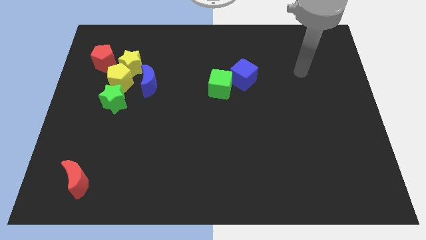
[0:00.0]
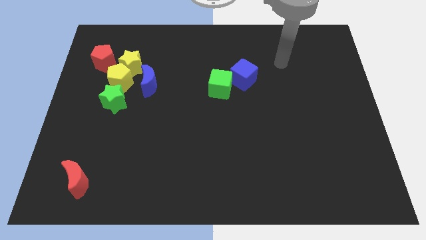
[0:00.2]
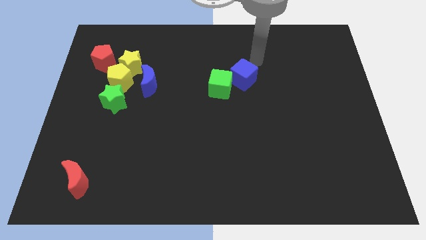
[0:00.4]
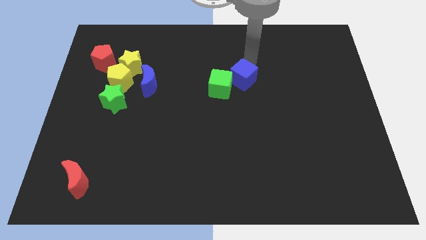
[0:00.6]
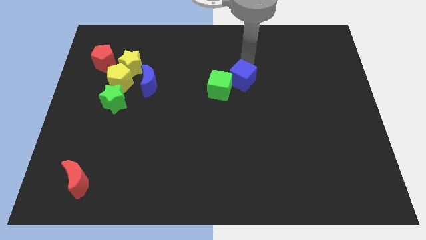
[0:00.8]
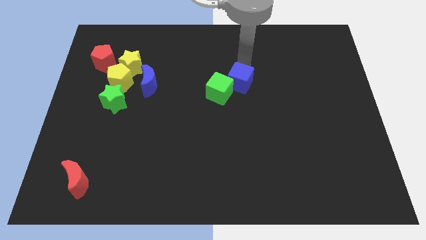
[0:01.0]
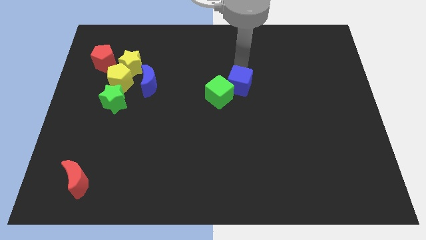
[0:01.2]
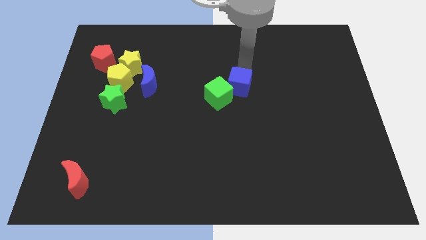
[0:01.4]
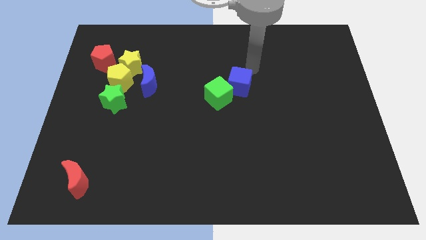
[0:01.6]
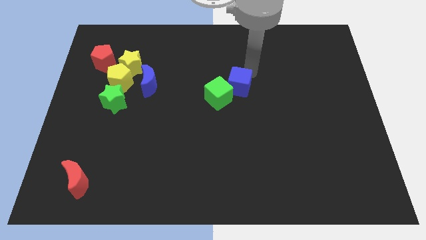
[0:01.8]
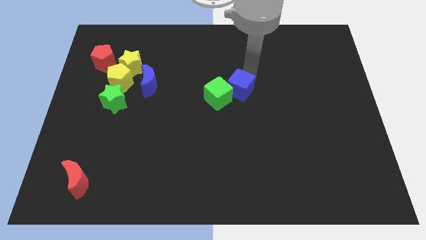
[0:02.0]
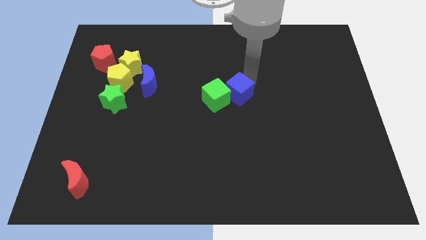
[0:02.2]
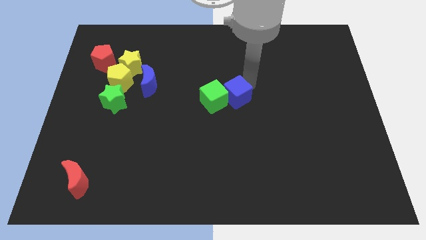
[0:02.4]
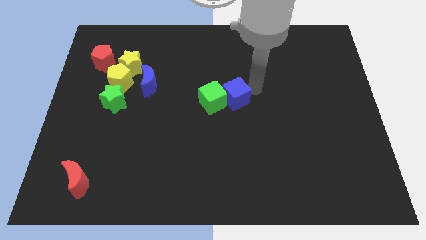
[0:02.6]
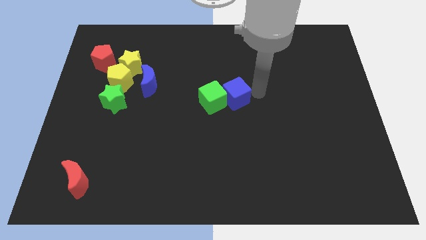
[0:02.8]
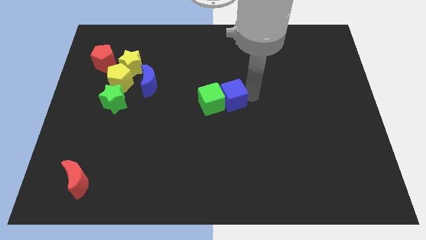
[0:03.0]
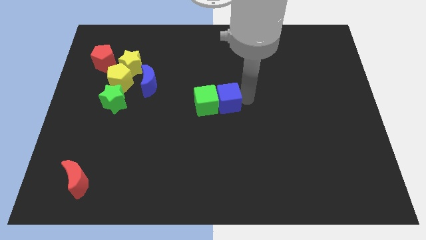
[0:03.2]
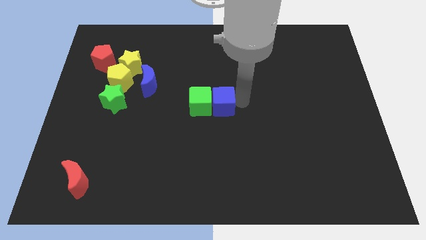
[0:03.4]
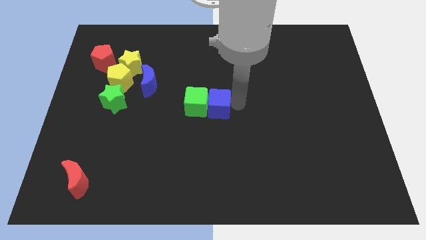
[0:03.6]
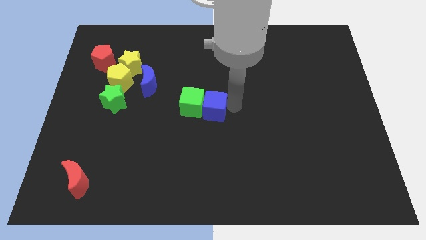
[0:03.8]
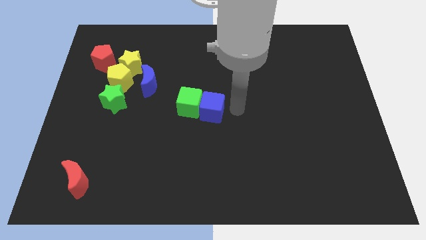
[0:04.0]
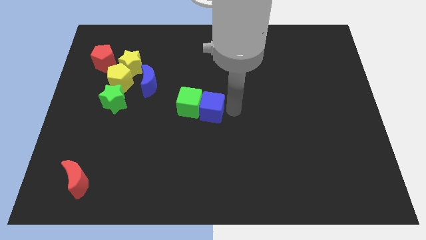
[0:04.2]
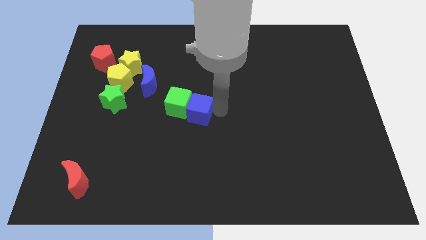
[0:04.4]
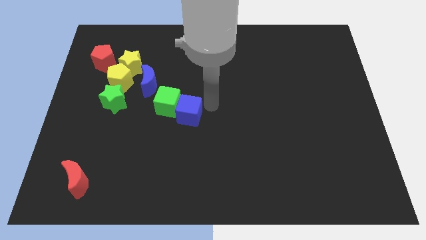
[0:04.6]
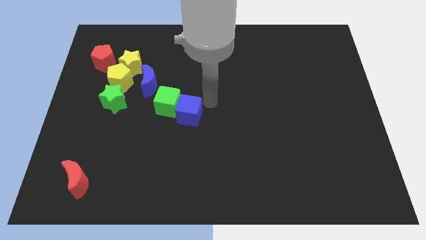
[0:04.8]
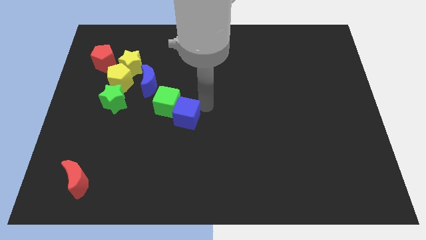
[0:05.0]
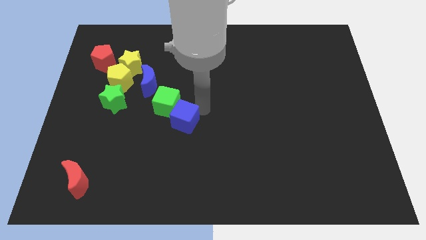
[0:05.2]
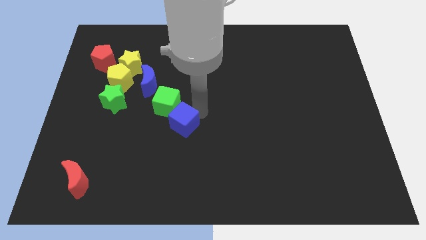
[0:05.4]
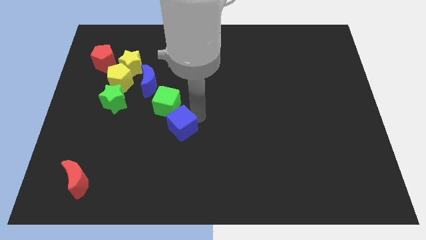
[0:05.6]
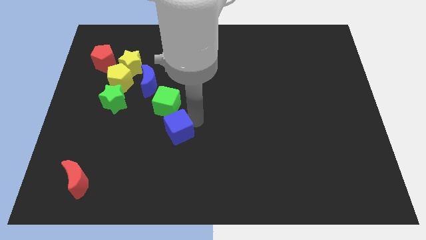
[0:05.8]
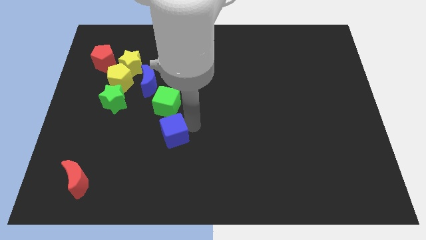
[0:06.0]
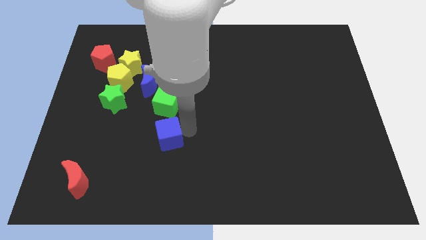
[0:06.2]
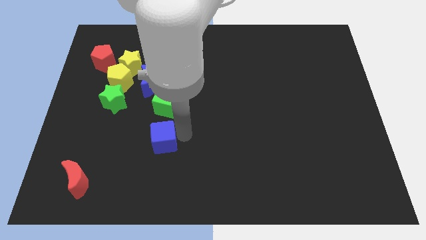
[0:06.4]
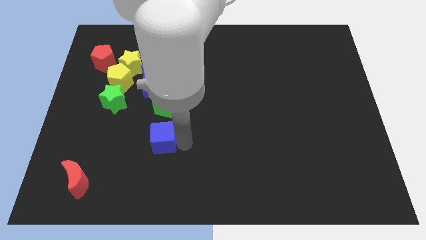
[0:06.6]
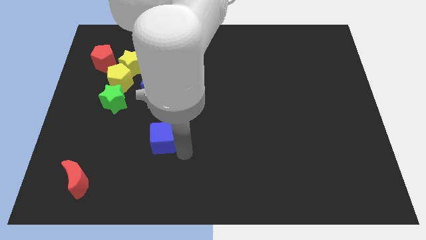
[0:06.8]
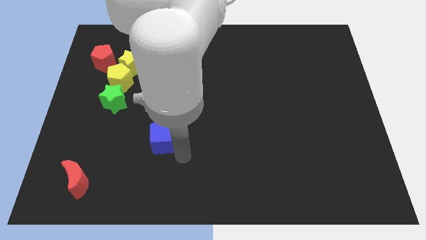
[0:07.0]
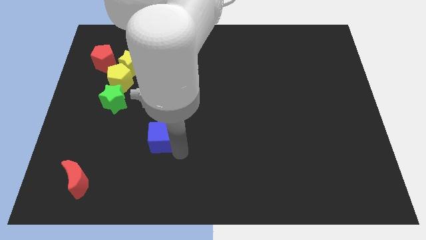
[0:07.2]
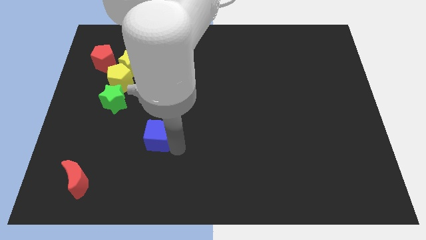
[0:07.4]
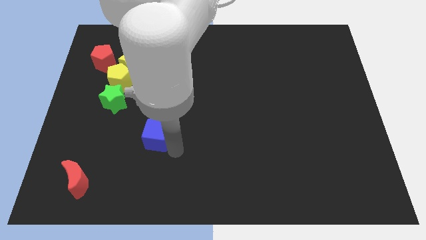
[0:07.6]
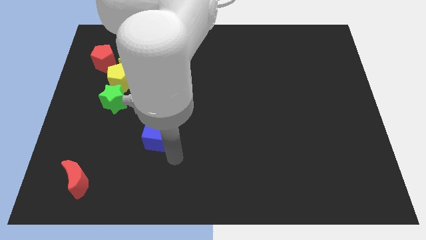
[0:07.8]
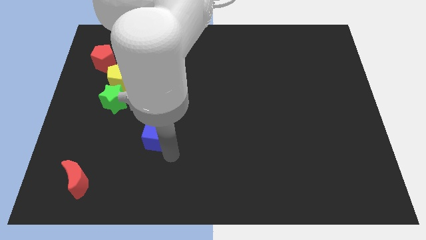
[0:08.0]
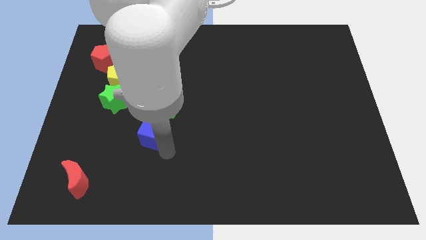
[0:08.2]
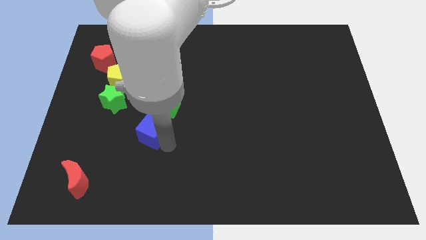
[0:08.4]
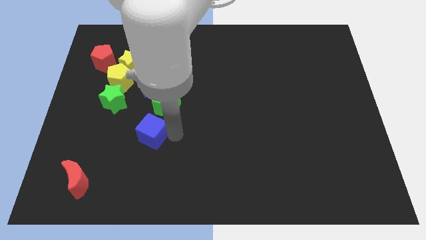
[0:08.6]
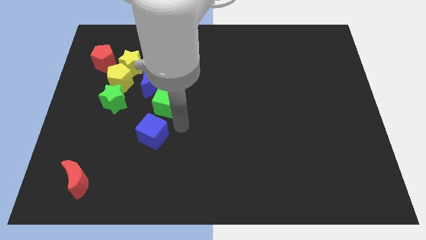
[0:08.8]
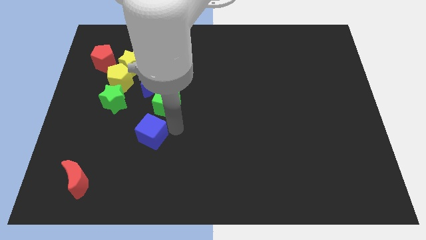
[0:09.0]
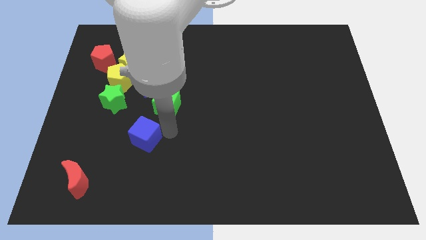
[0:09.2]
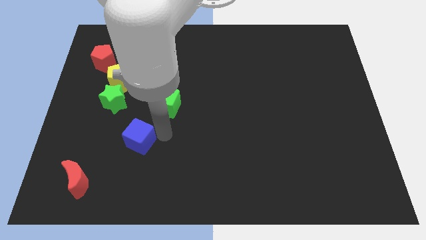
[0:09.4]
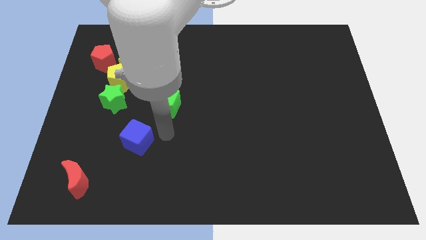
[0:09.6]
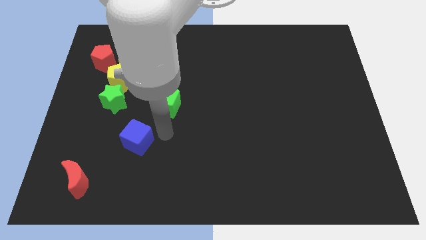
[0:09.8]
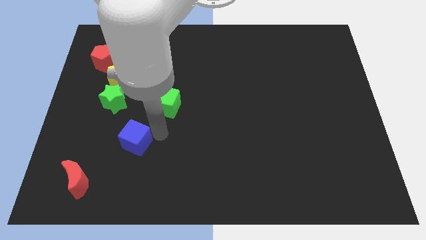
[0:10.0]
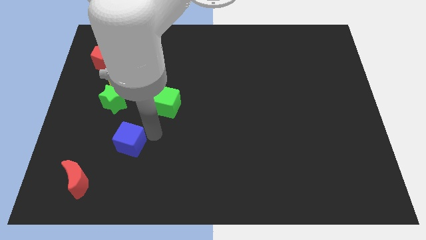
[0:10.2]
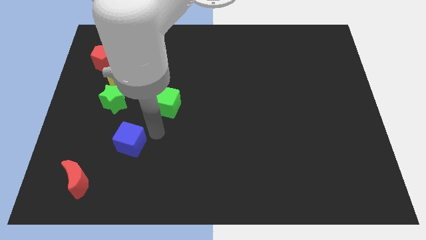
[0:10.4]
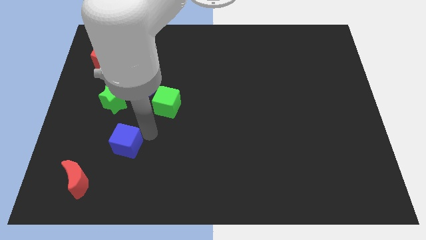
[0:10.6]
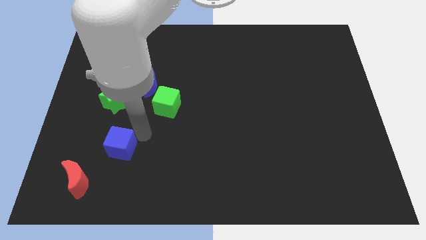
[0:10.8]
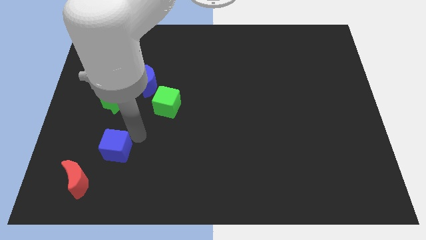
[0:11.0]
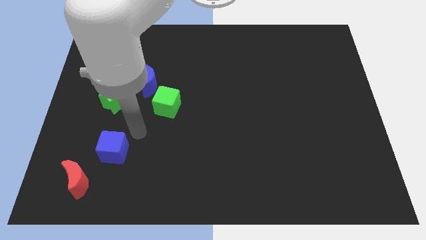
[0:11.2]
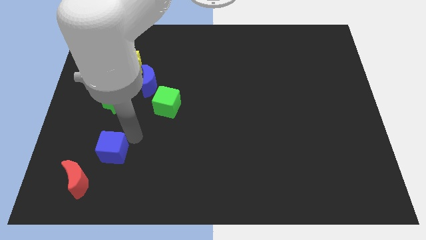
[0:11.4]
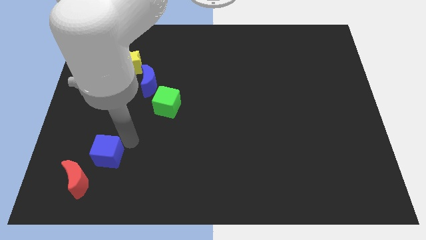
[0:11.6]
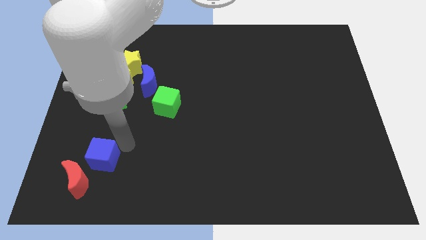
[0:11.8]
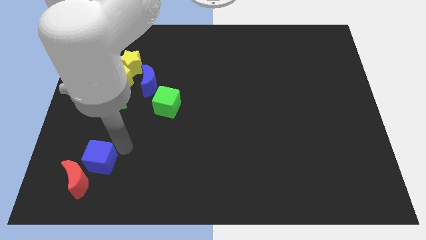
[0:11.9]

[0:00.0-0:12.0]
slide the blue cube close to the red moon

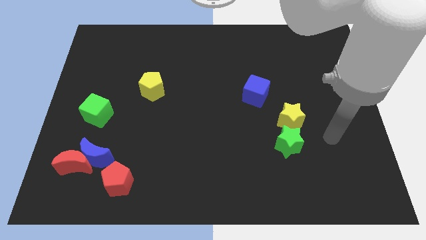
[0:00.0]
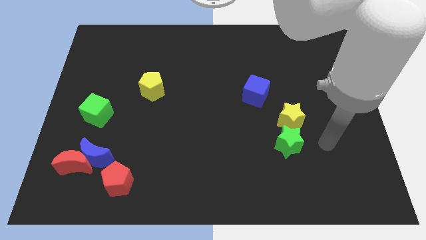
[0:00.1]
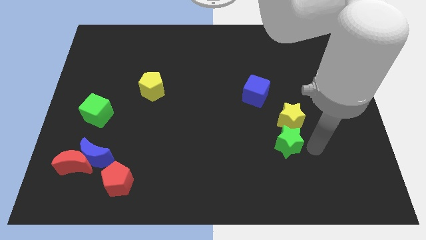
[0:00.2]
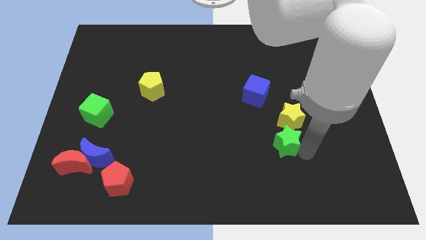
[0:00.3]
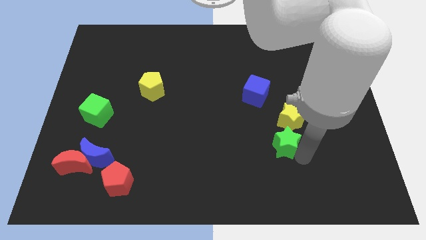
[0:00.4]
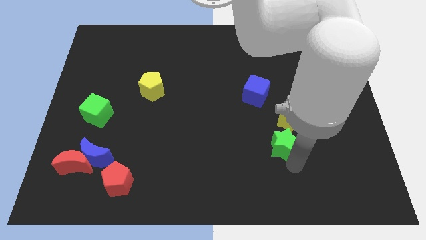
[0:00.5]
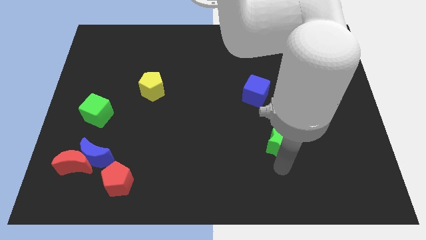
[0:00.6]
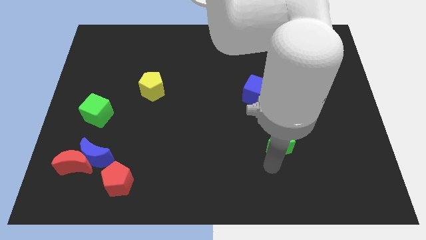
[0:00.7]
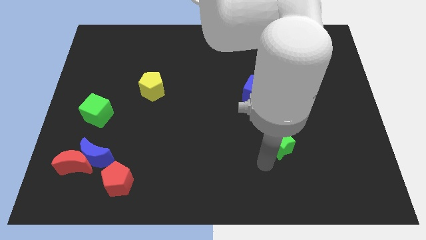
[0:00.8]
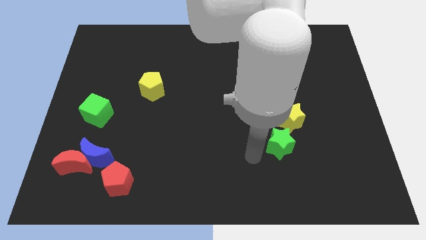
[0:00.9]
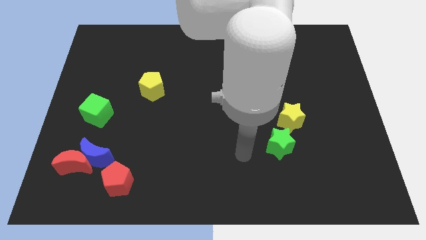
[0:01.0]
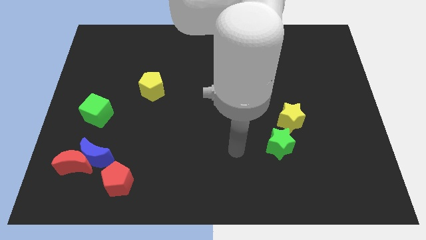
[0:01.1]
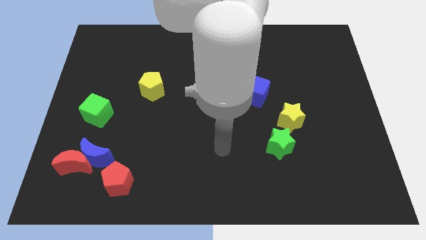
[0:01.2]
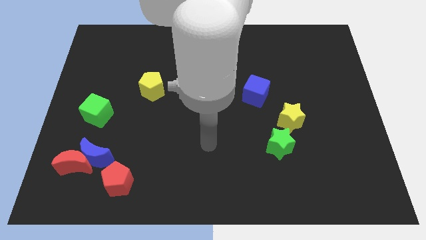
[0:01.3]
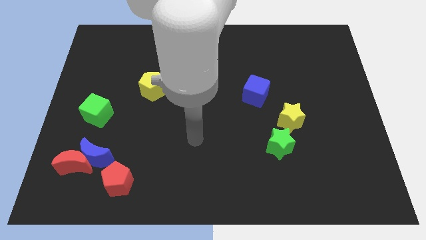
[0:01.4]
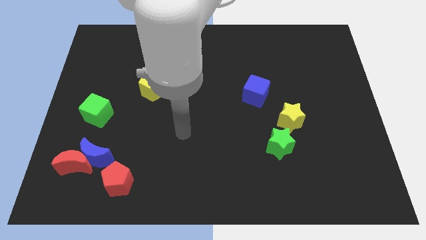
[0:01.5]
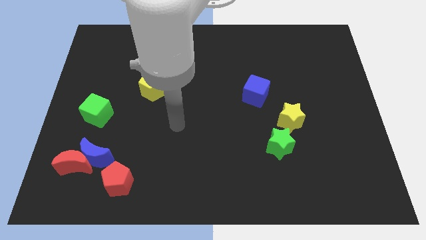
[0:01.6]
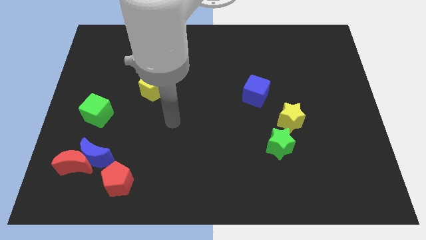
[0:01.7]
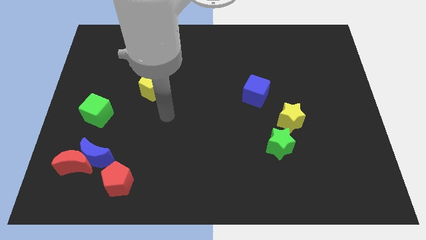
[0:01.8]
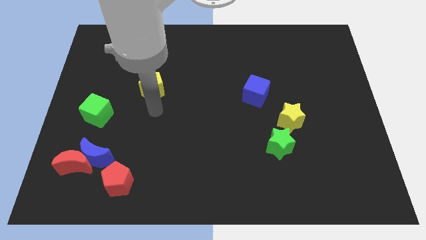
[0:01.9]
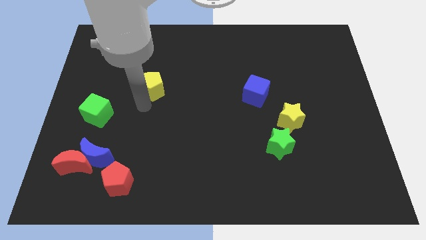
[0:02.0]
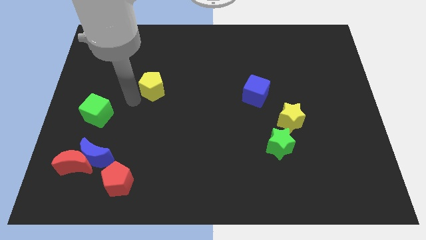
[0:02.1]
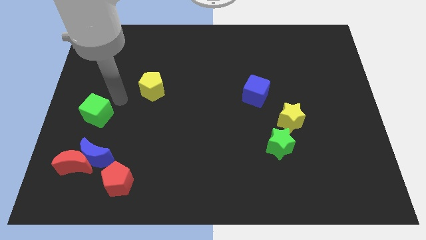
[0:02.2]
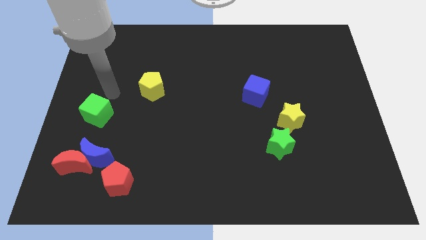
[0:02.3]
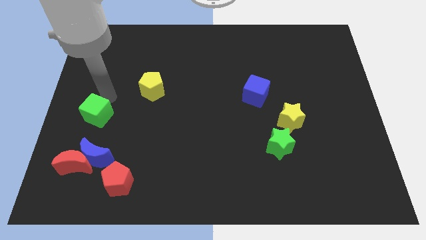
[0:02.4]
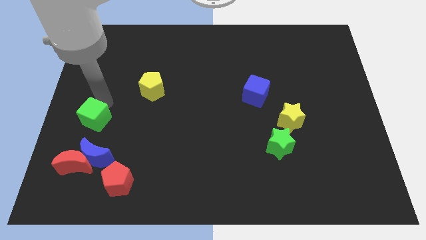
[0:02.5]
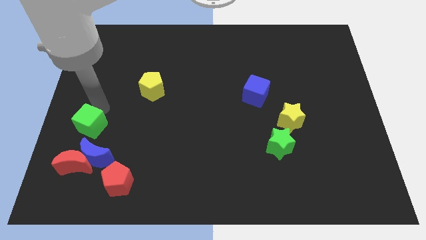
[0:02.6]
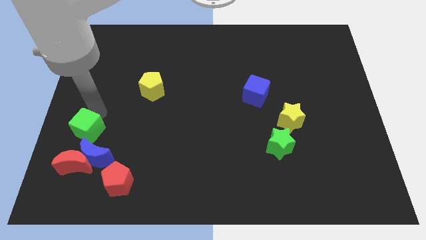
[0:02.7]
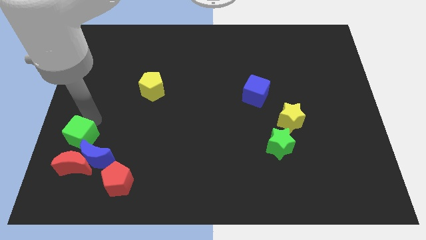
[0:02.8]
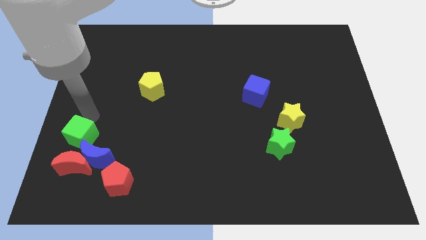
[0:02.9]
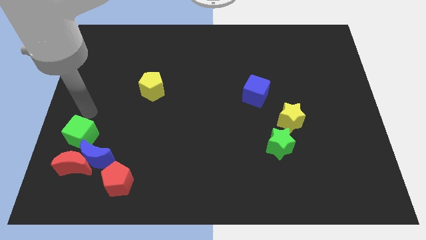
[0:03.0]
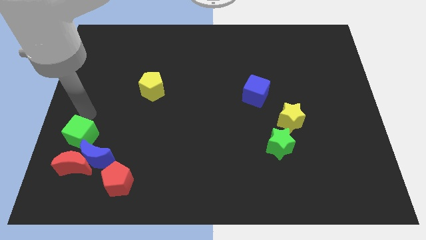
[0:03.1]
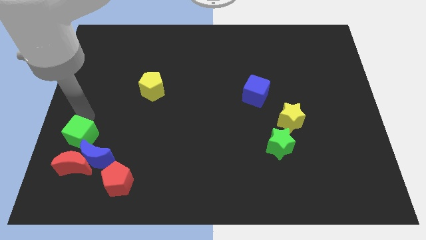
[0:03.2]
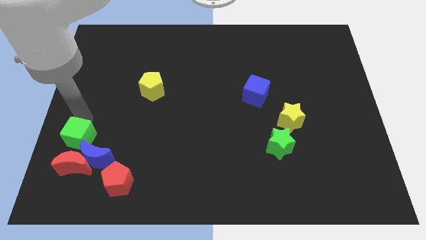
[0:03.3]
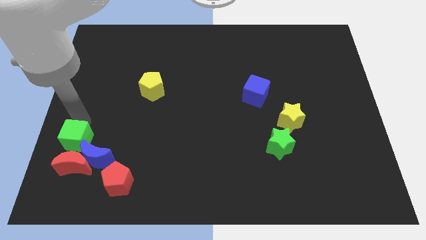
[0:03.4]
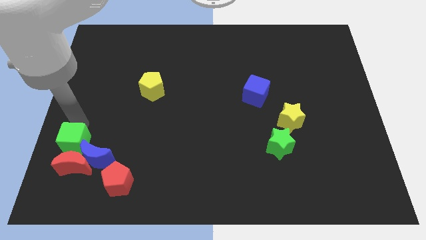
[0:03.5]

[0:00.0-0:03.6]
push the green cube next to the red moon
